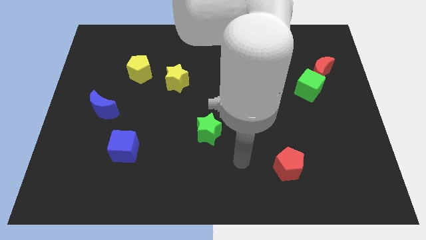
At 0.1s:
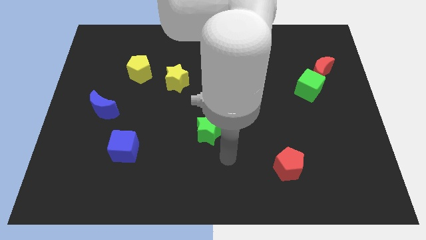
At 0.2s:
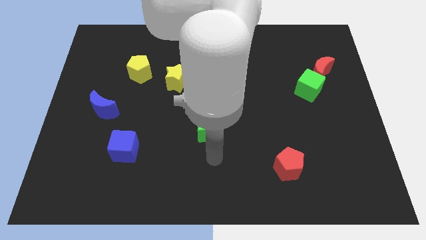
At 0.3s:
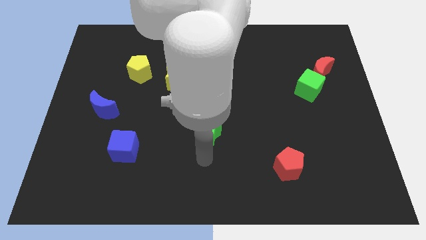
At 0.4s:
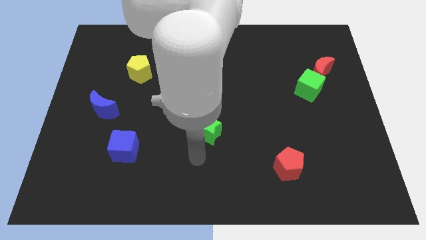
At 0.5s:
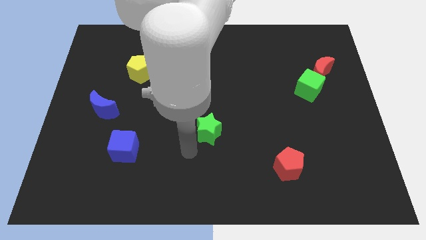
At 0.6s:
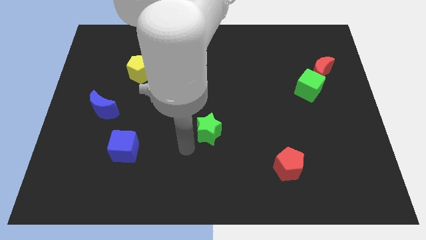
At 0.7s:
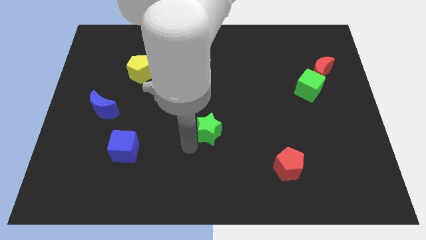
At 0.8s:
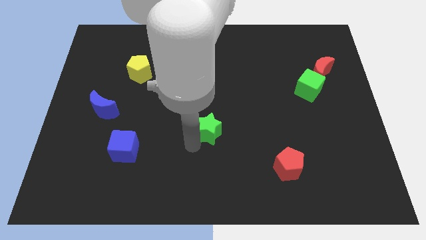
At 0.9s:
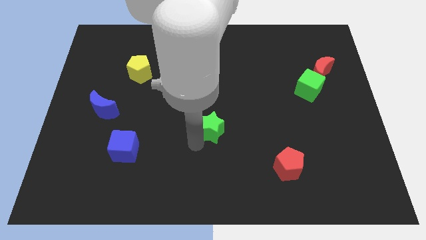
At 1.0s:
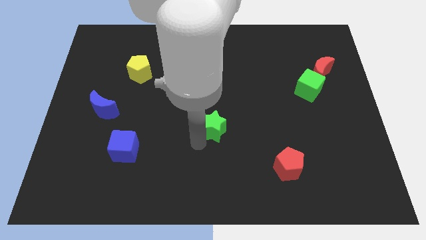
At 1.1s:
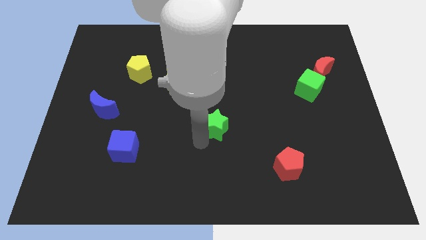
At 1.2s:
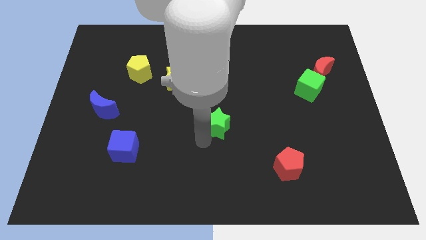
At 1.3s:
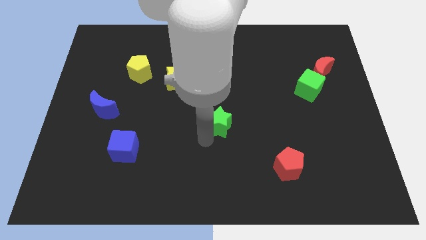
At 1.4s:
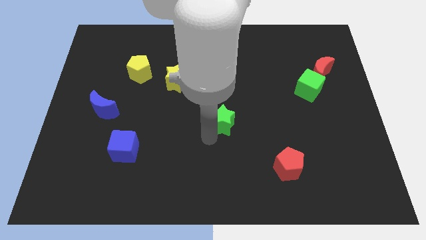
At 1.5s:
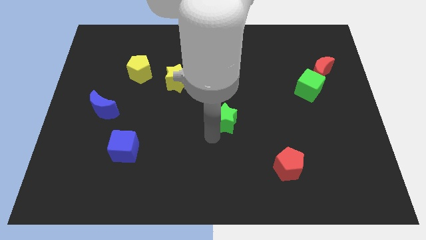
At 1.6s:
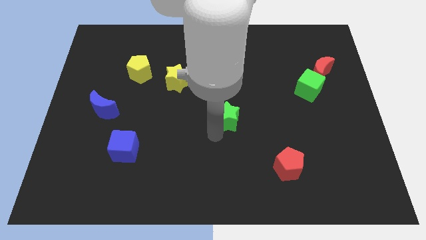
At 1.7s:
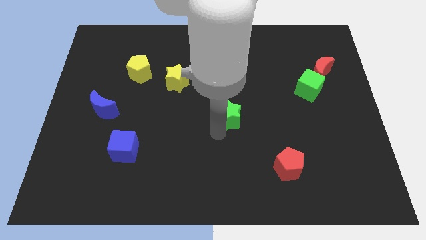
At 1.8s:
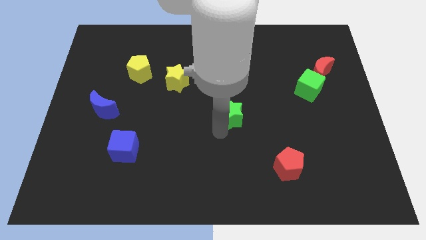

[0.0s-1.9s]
slide the green star somewhat up and right

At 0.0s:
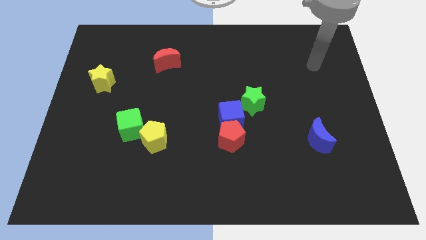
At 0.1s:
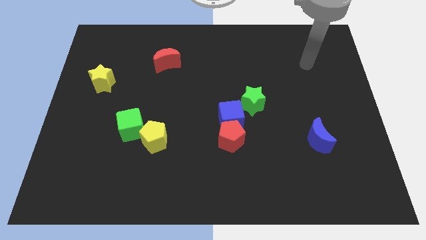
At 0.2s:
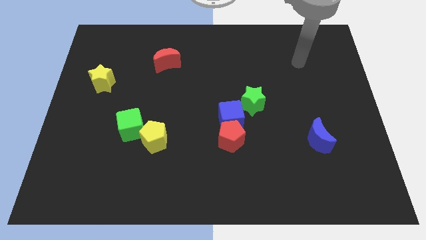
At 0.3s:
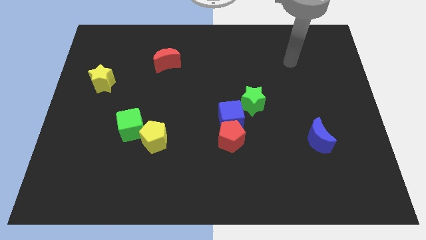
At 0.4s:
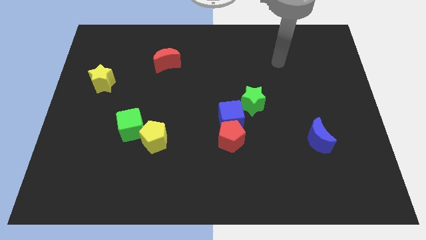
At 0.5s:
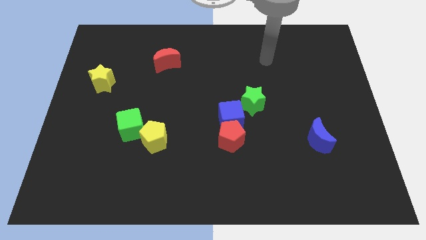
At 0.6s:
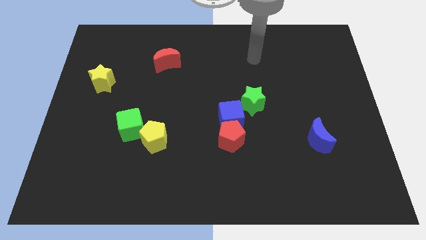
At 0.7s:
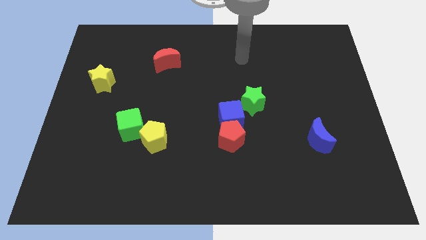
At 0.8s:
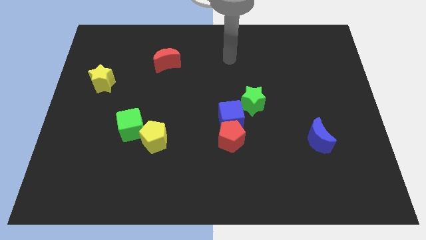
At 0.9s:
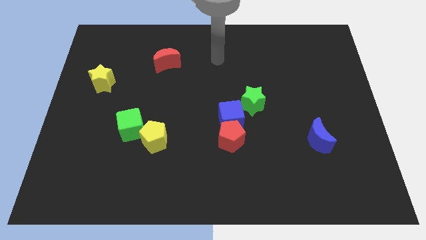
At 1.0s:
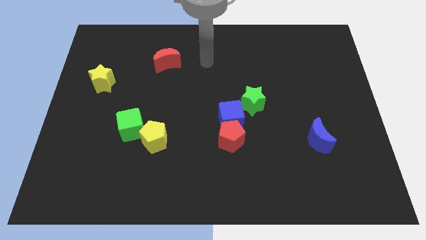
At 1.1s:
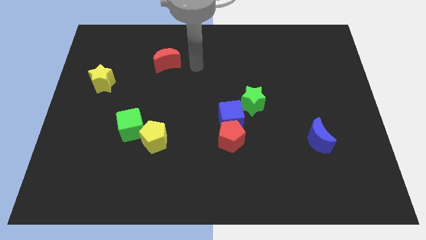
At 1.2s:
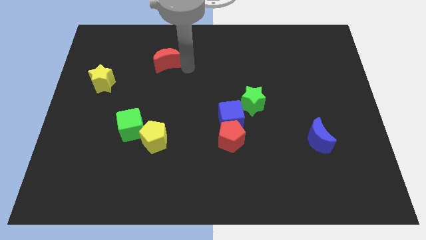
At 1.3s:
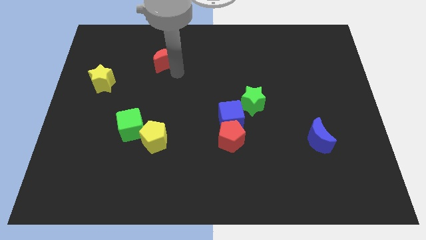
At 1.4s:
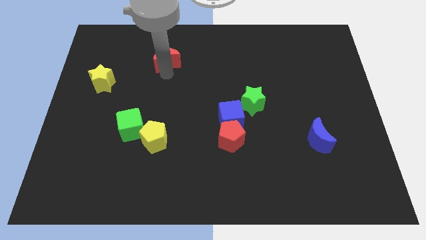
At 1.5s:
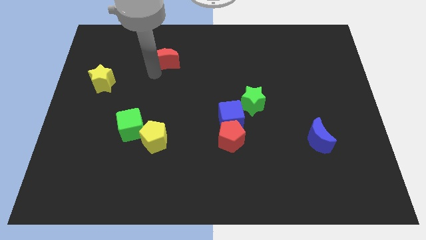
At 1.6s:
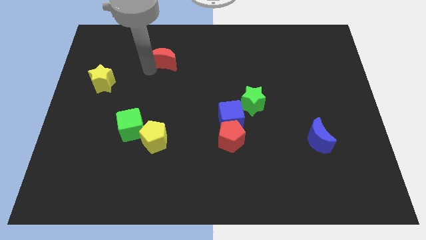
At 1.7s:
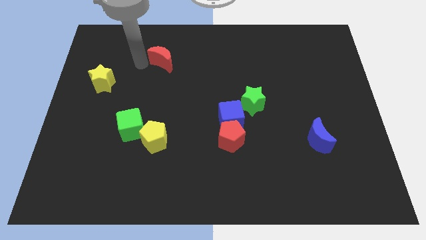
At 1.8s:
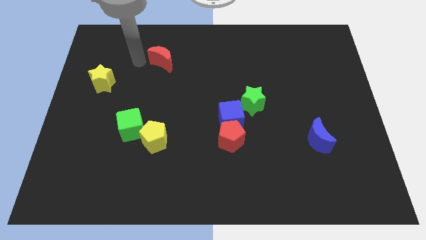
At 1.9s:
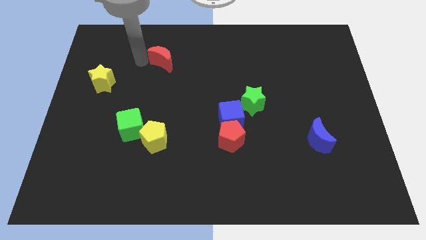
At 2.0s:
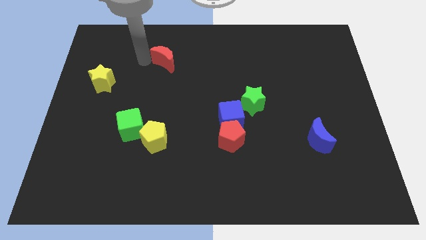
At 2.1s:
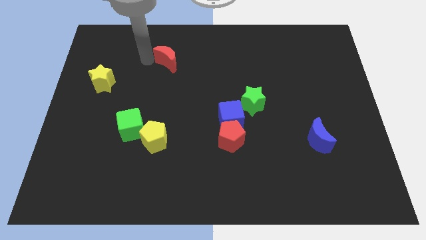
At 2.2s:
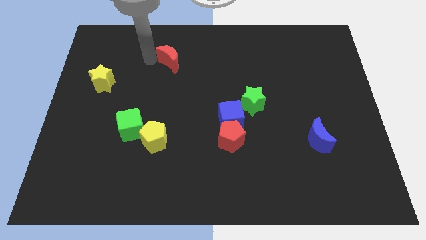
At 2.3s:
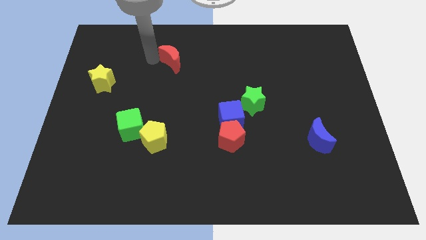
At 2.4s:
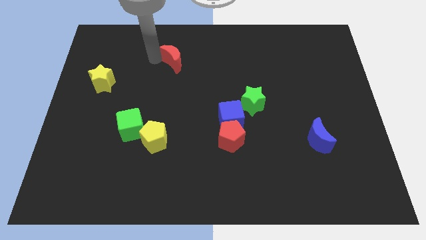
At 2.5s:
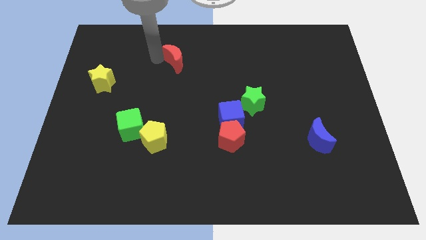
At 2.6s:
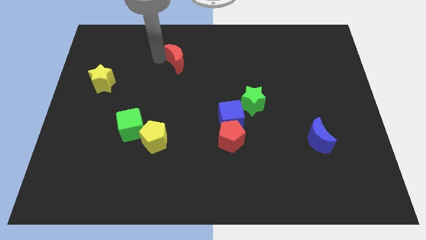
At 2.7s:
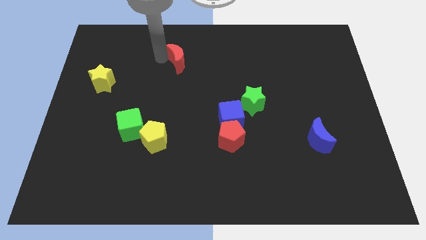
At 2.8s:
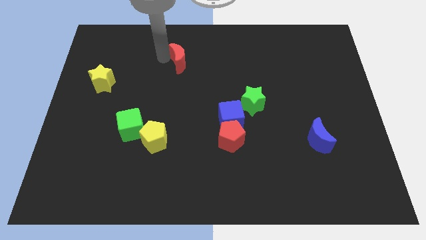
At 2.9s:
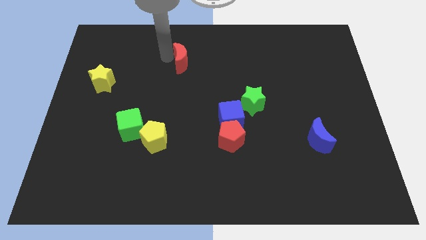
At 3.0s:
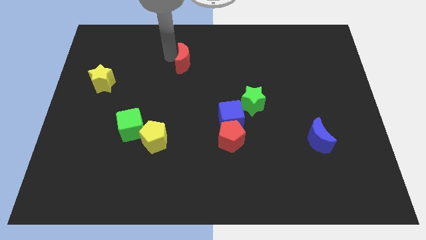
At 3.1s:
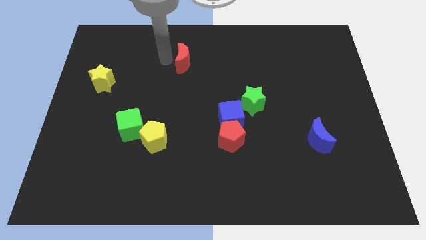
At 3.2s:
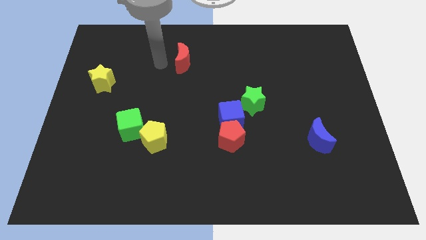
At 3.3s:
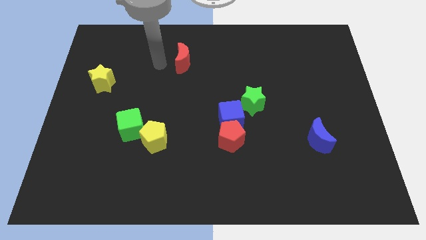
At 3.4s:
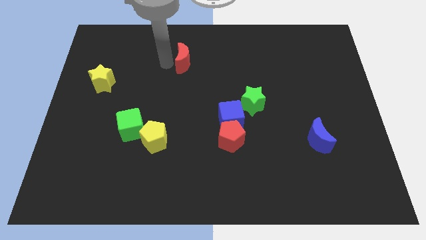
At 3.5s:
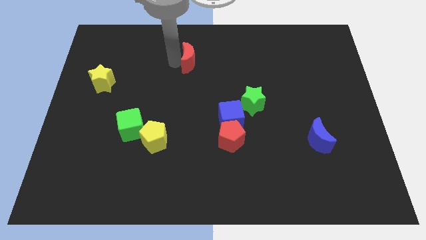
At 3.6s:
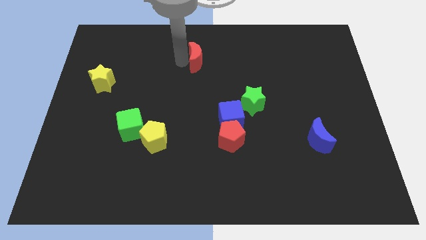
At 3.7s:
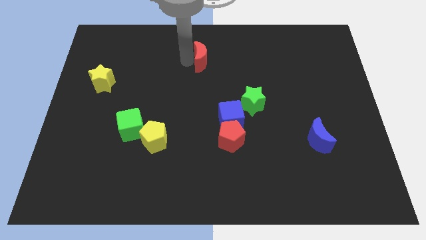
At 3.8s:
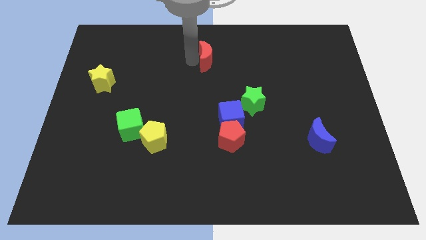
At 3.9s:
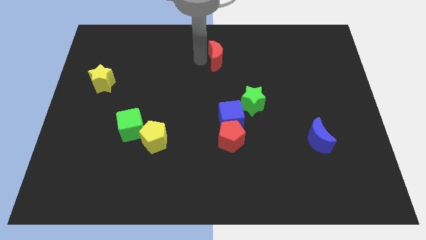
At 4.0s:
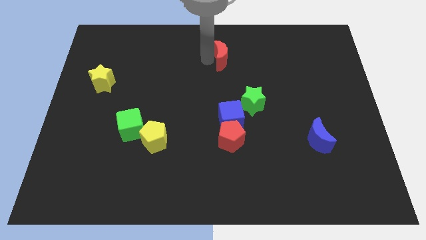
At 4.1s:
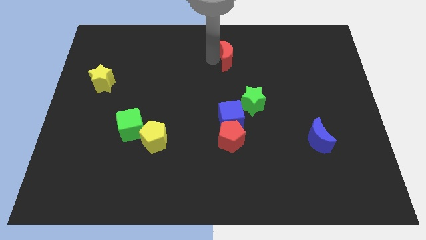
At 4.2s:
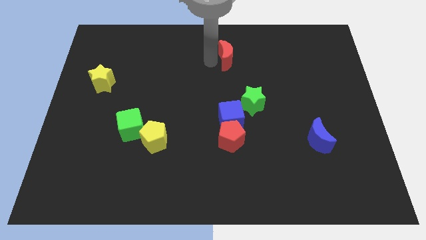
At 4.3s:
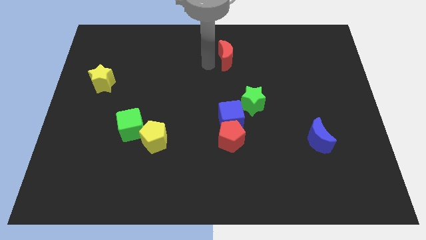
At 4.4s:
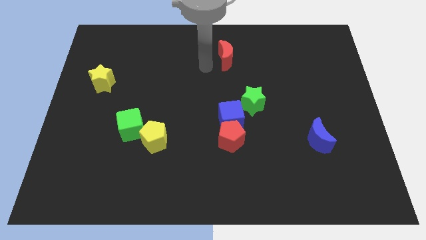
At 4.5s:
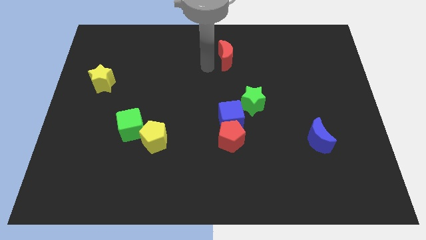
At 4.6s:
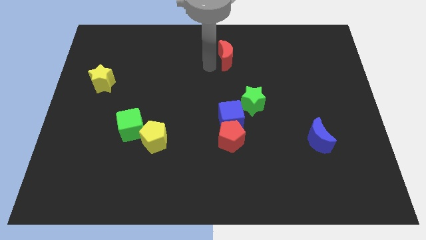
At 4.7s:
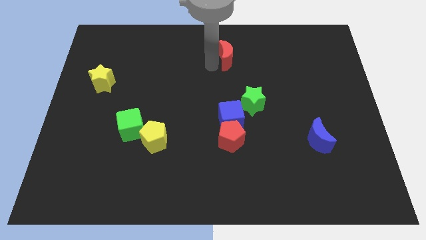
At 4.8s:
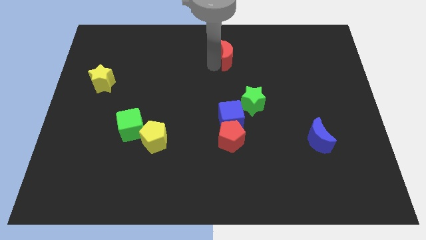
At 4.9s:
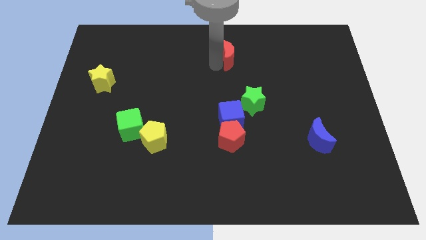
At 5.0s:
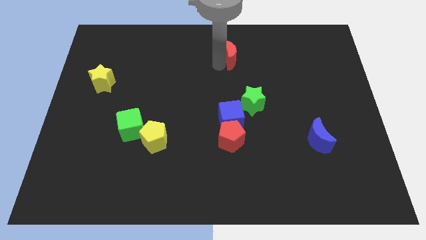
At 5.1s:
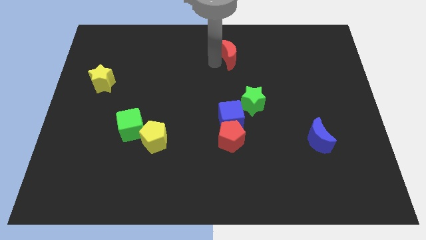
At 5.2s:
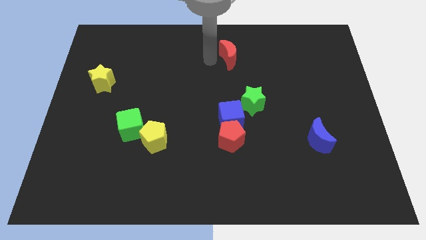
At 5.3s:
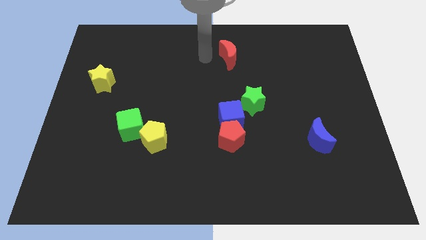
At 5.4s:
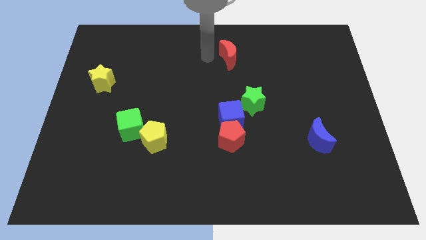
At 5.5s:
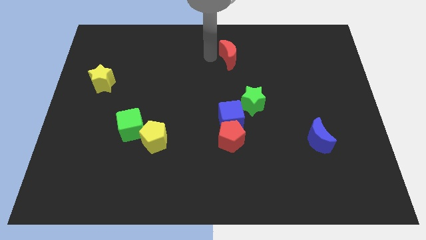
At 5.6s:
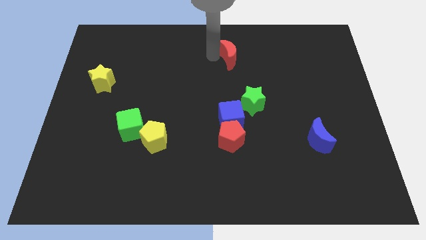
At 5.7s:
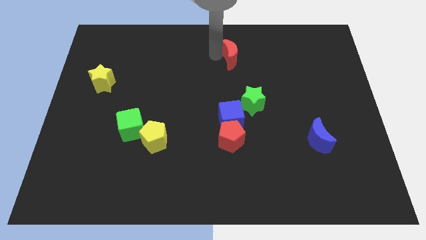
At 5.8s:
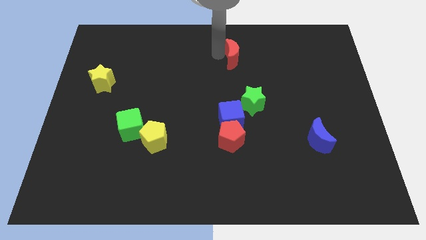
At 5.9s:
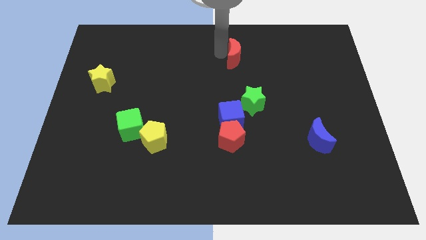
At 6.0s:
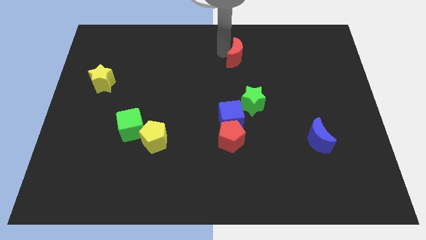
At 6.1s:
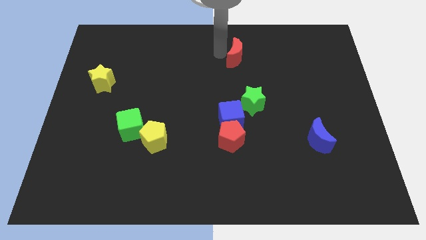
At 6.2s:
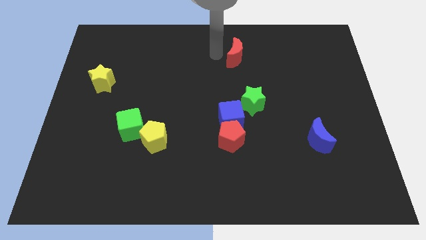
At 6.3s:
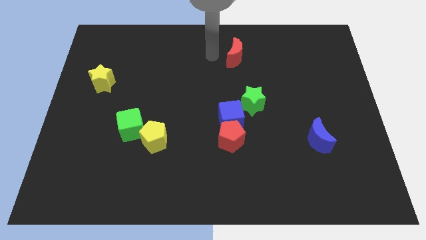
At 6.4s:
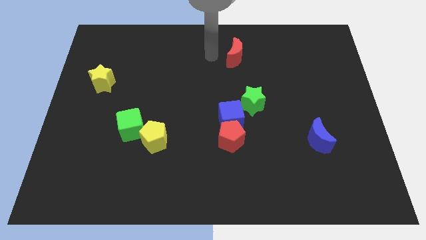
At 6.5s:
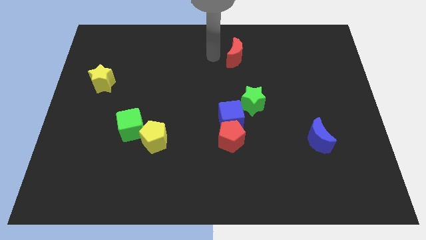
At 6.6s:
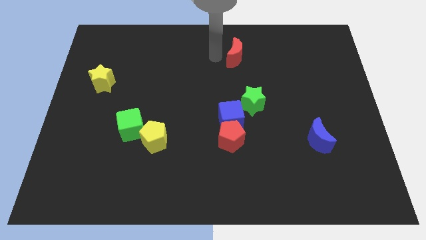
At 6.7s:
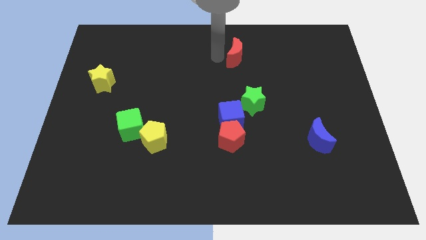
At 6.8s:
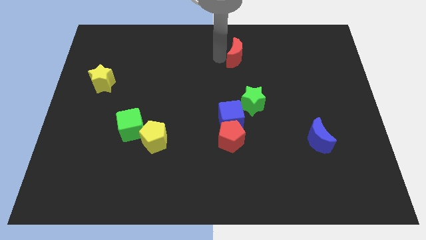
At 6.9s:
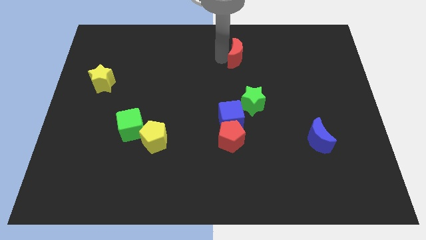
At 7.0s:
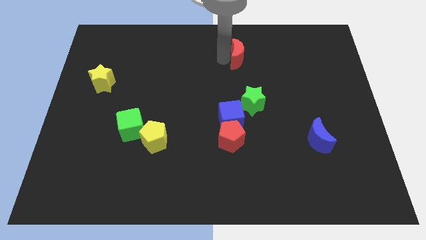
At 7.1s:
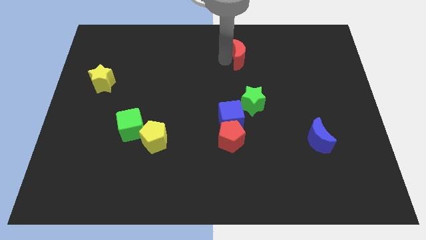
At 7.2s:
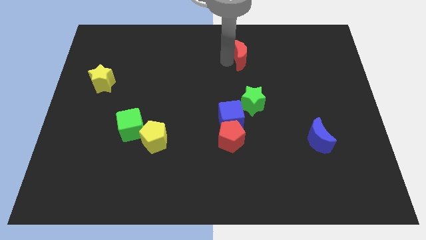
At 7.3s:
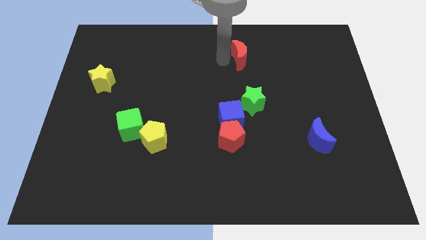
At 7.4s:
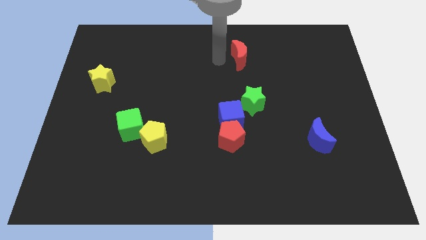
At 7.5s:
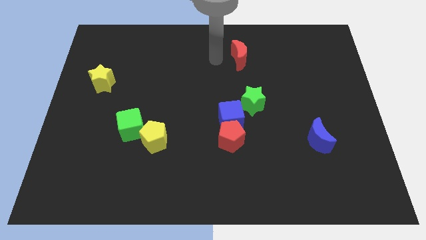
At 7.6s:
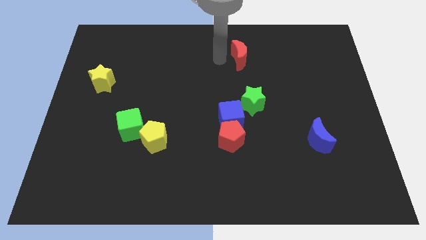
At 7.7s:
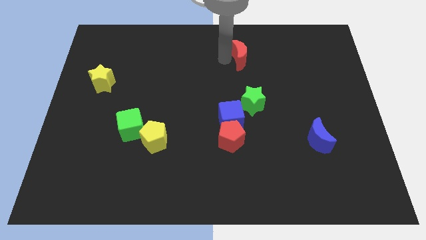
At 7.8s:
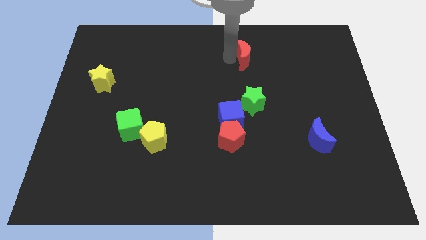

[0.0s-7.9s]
move the red moon right
